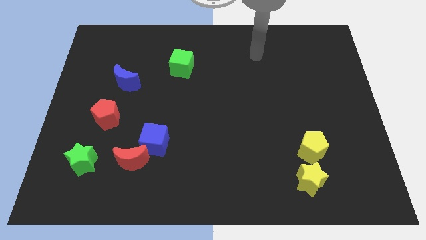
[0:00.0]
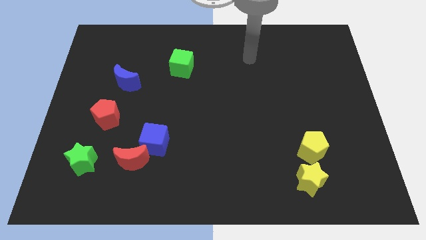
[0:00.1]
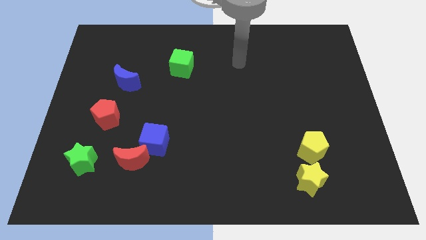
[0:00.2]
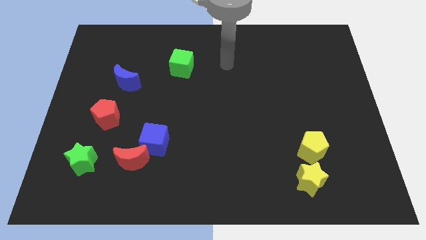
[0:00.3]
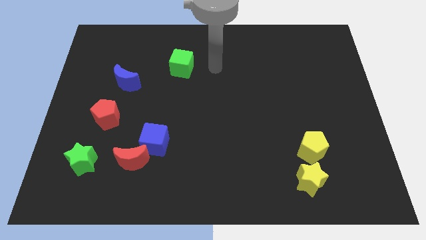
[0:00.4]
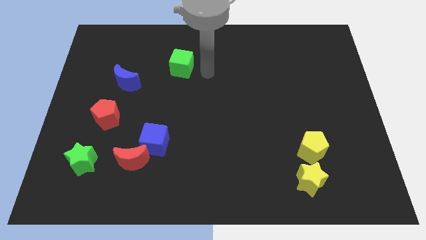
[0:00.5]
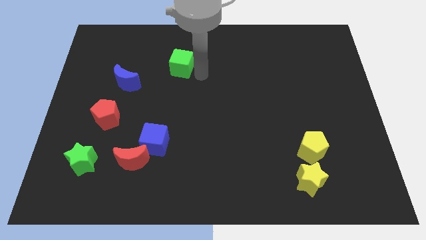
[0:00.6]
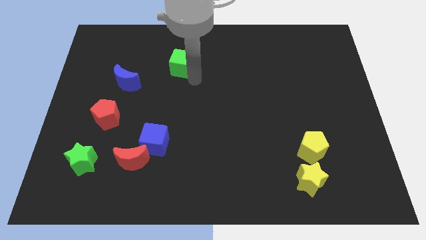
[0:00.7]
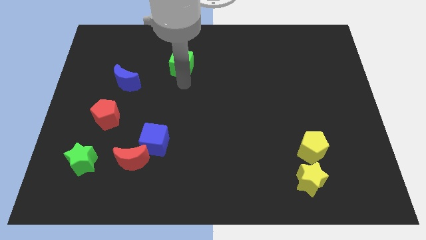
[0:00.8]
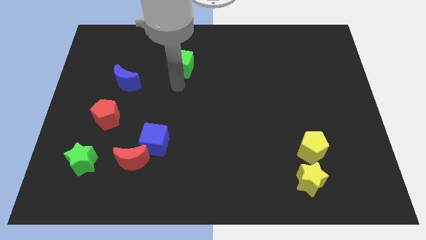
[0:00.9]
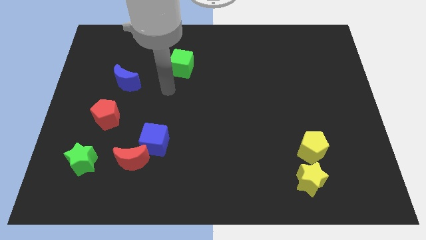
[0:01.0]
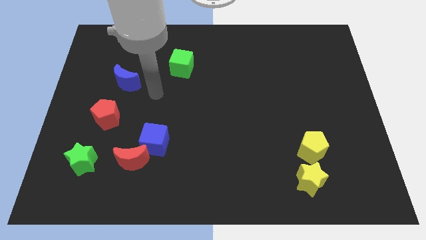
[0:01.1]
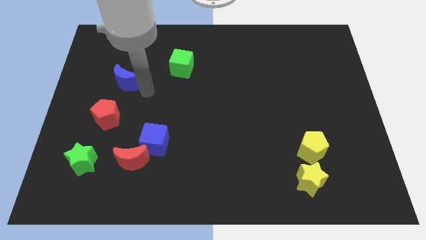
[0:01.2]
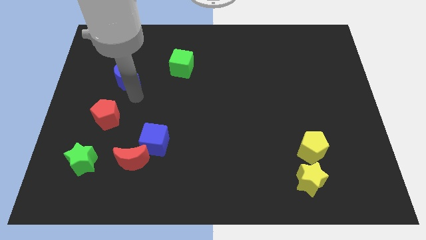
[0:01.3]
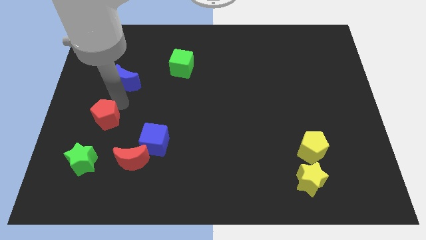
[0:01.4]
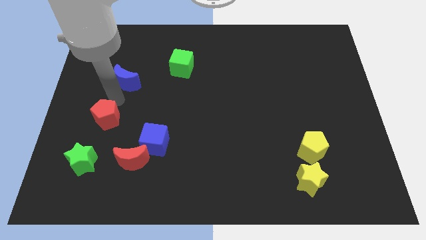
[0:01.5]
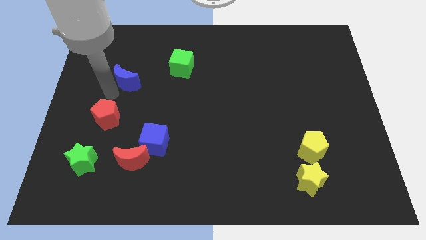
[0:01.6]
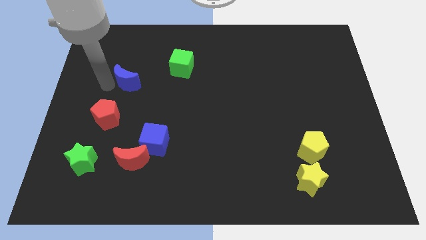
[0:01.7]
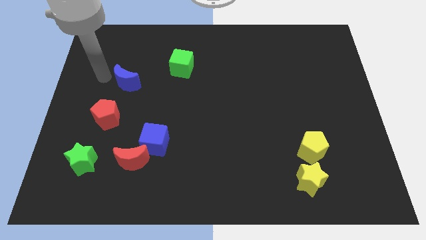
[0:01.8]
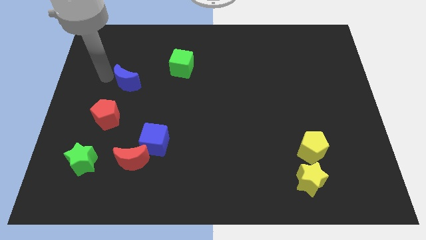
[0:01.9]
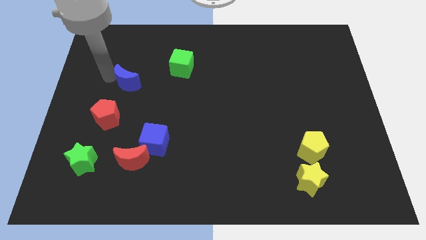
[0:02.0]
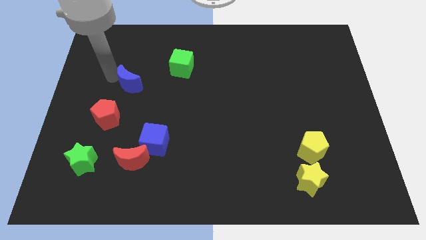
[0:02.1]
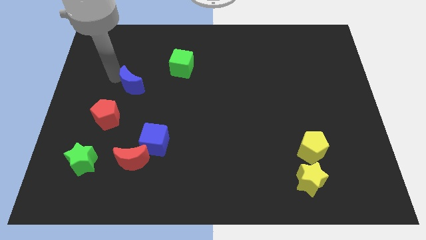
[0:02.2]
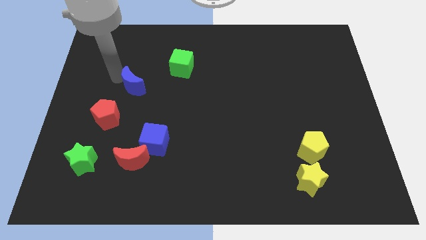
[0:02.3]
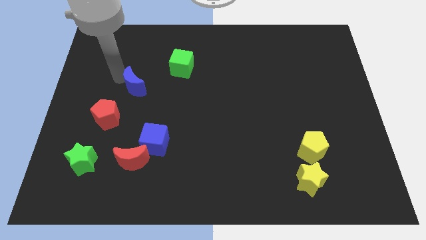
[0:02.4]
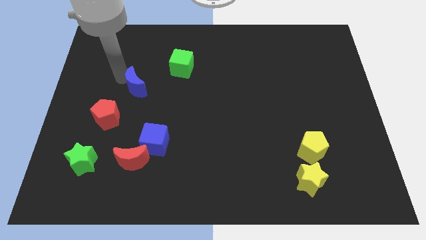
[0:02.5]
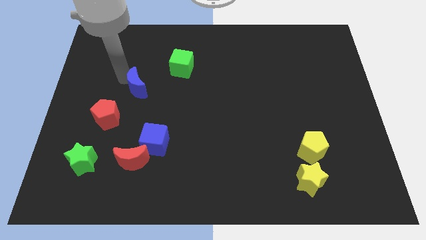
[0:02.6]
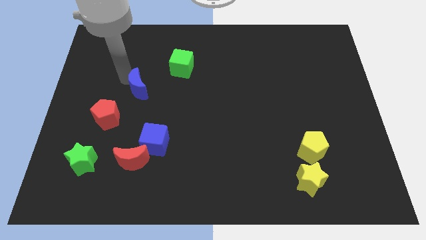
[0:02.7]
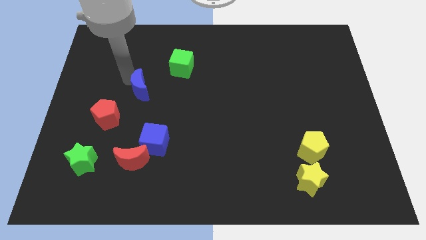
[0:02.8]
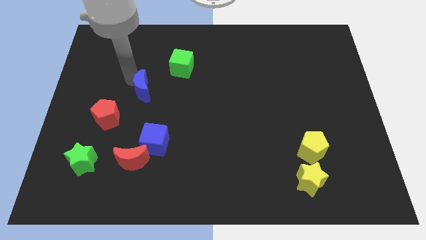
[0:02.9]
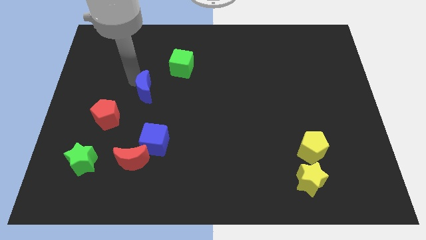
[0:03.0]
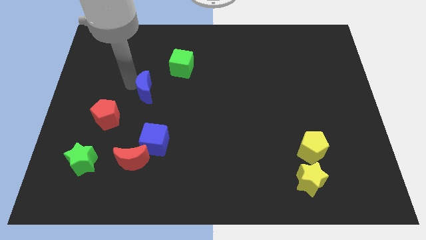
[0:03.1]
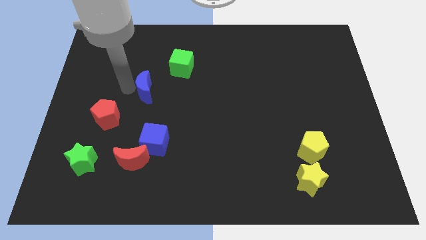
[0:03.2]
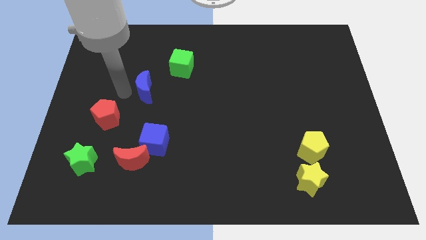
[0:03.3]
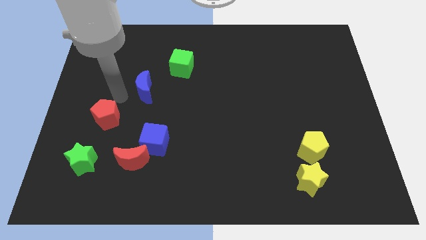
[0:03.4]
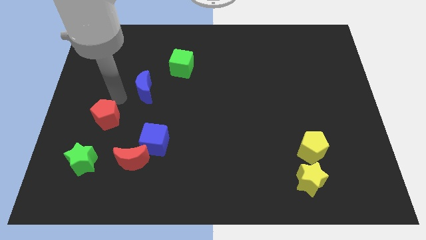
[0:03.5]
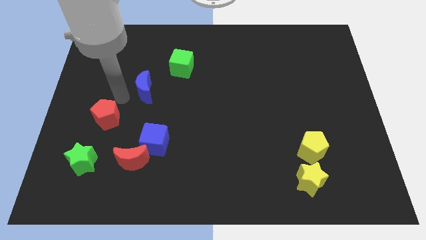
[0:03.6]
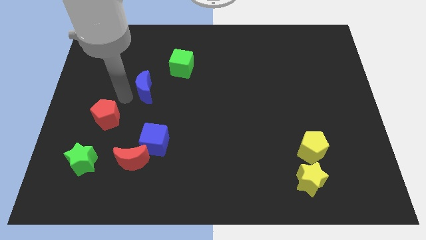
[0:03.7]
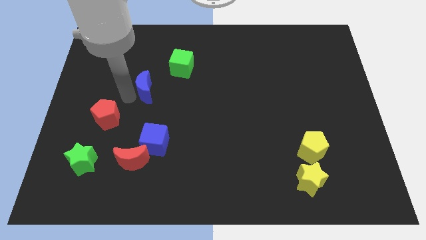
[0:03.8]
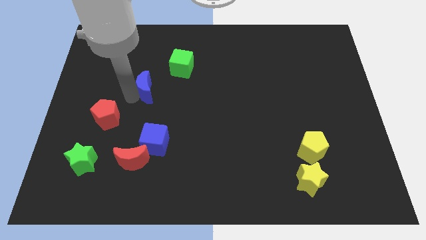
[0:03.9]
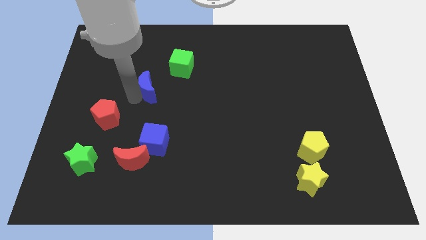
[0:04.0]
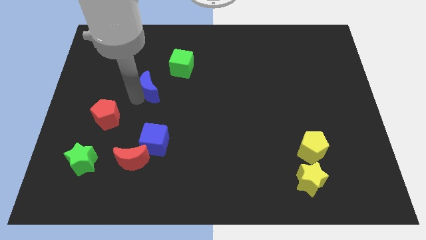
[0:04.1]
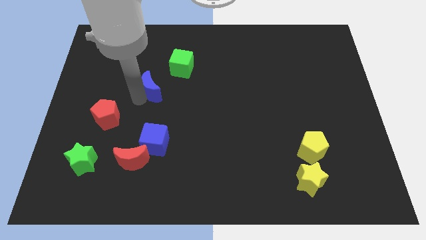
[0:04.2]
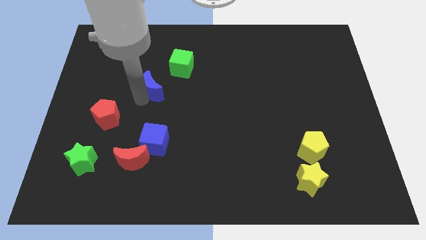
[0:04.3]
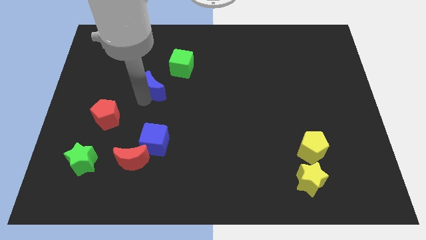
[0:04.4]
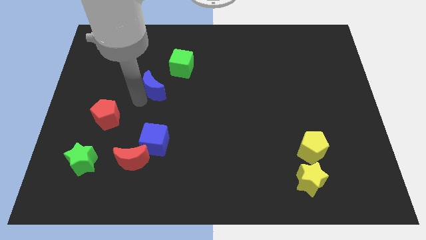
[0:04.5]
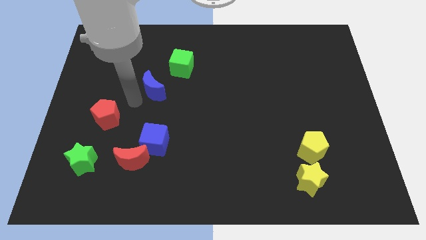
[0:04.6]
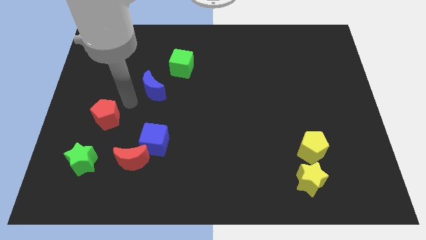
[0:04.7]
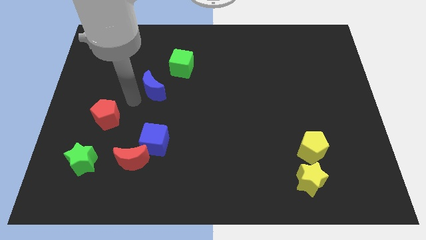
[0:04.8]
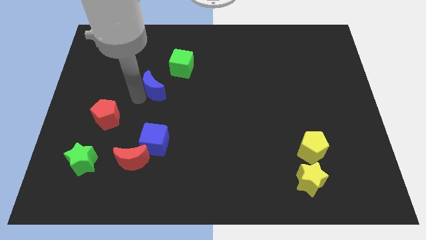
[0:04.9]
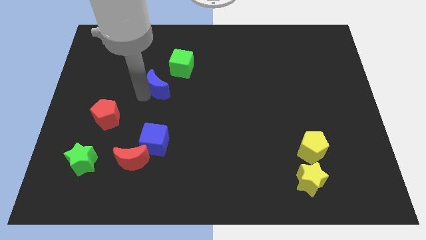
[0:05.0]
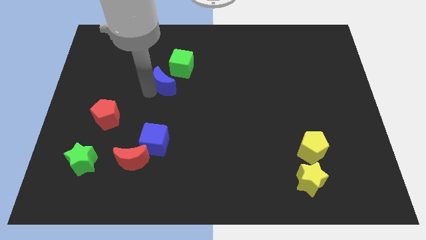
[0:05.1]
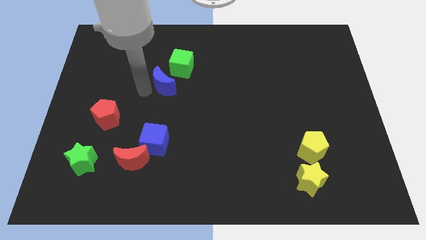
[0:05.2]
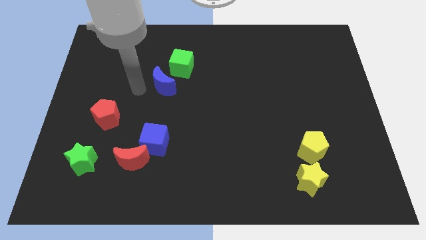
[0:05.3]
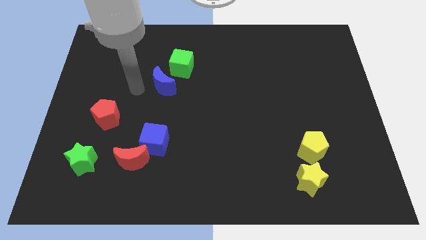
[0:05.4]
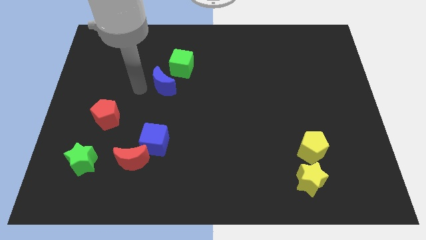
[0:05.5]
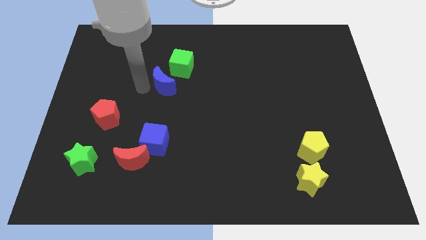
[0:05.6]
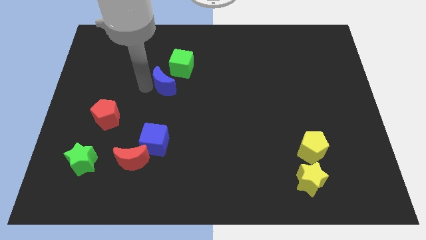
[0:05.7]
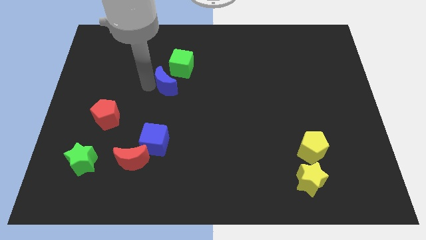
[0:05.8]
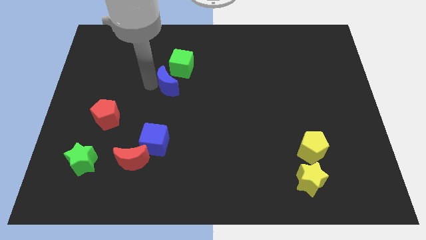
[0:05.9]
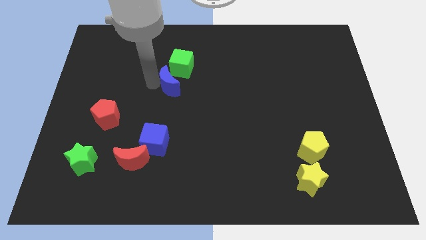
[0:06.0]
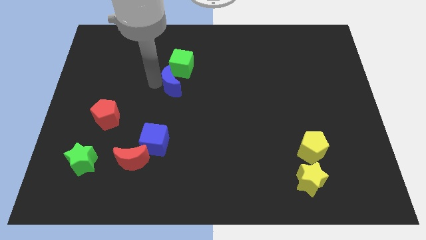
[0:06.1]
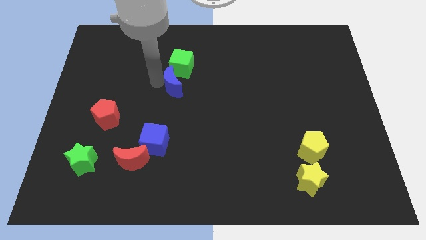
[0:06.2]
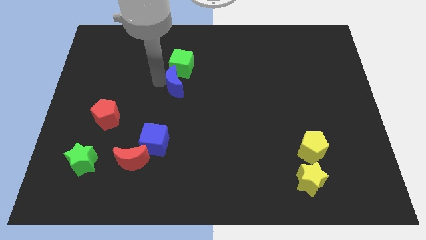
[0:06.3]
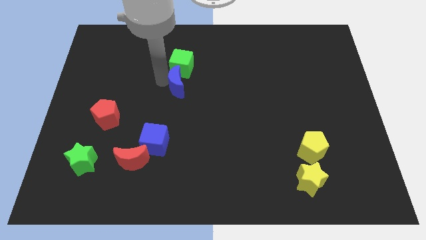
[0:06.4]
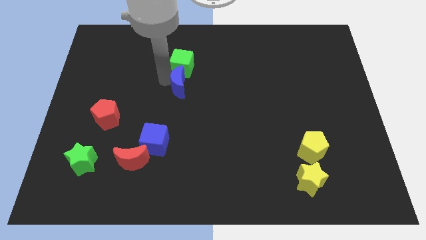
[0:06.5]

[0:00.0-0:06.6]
slide the blue moon to the bottom right side of the green cube

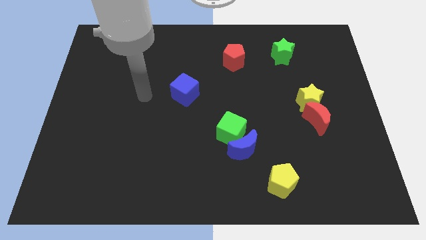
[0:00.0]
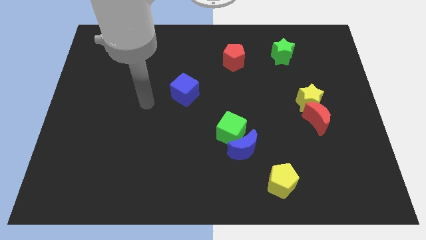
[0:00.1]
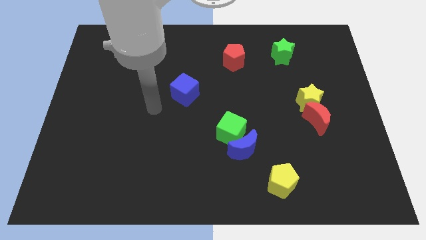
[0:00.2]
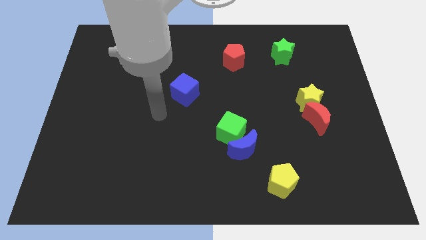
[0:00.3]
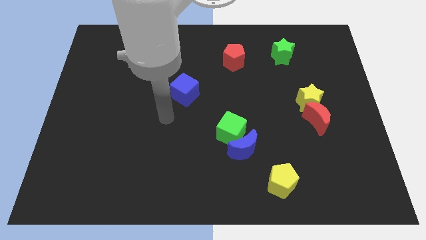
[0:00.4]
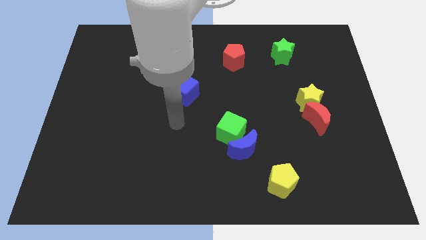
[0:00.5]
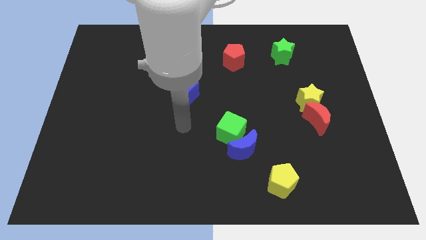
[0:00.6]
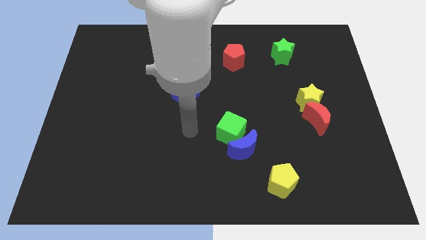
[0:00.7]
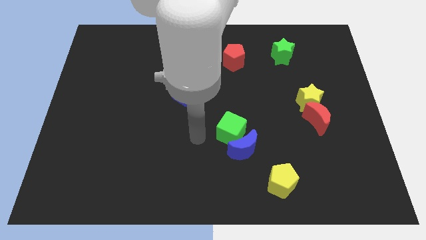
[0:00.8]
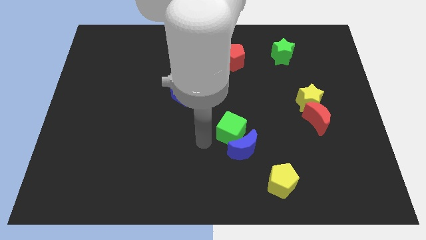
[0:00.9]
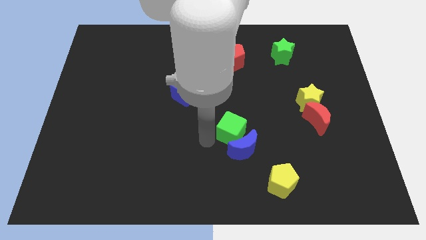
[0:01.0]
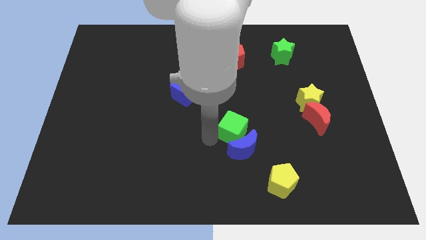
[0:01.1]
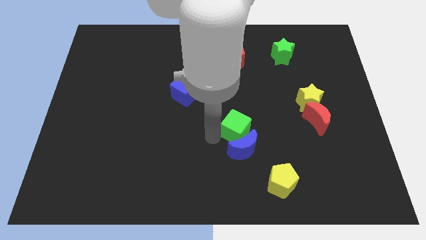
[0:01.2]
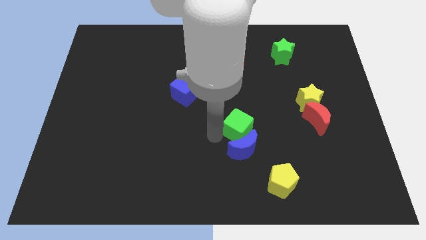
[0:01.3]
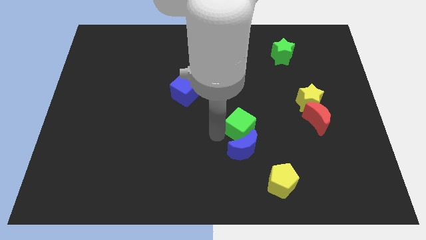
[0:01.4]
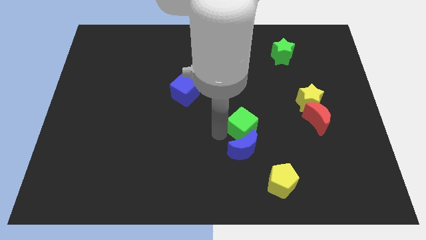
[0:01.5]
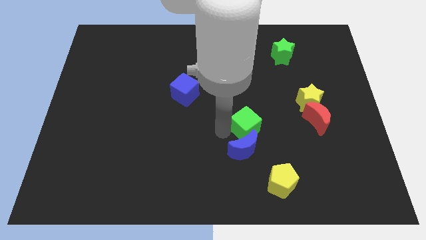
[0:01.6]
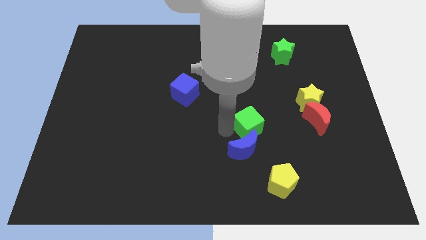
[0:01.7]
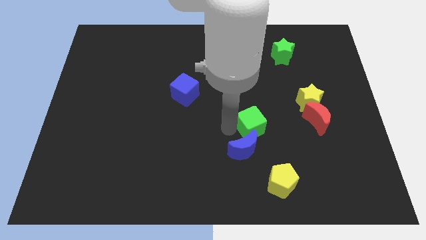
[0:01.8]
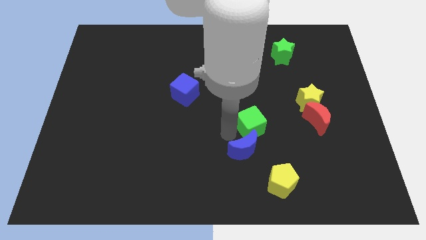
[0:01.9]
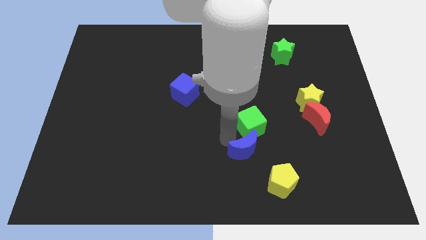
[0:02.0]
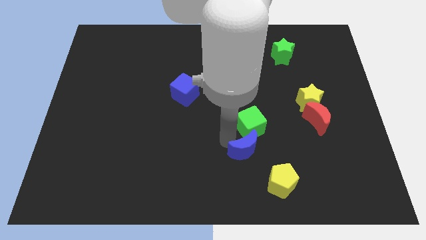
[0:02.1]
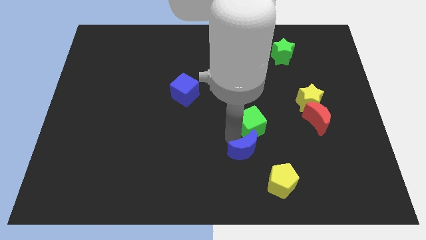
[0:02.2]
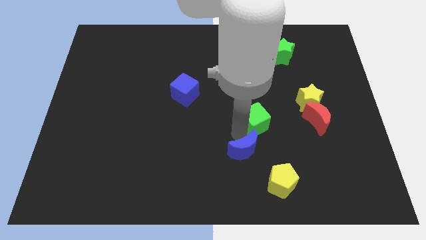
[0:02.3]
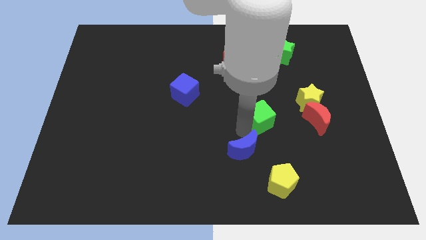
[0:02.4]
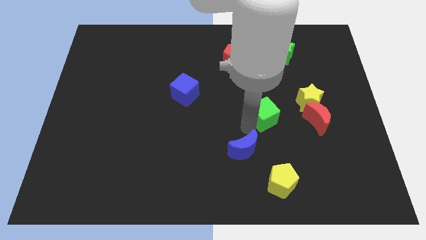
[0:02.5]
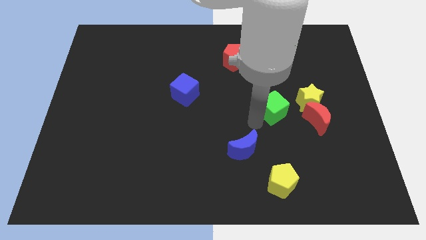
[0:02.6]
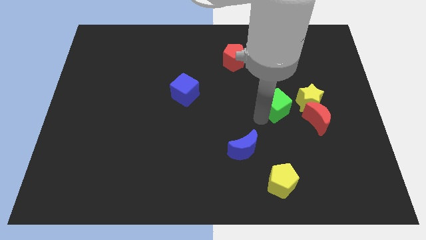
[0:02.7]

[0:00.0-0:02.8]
push the green cube to the top left side of the red moon
